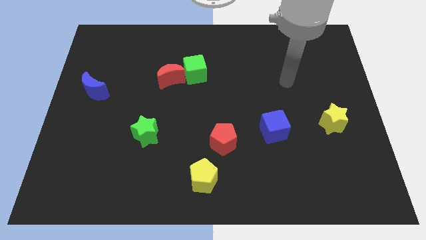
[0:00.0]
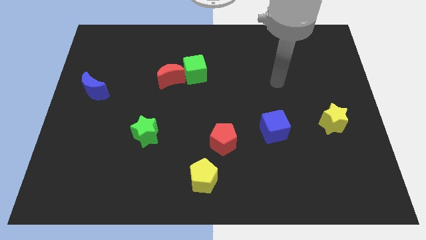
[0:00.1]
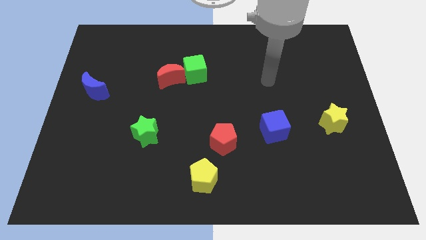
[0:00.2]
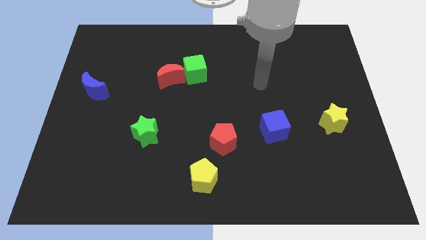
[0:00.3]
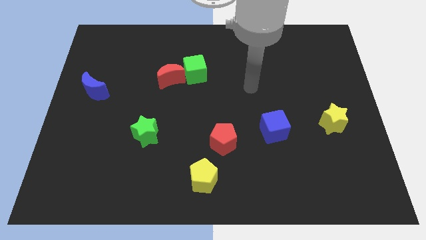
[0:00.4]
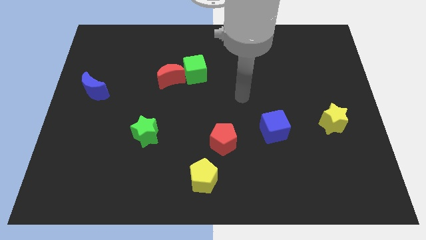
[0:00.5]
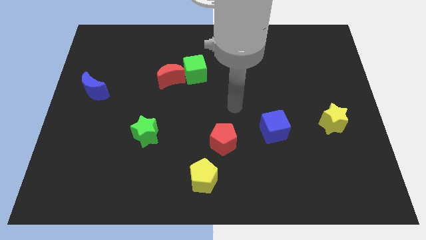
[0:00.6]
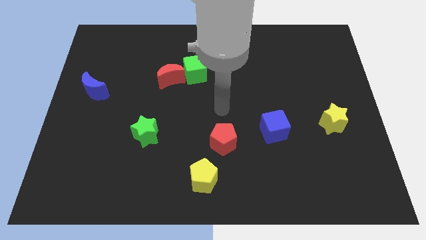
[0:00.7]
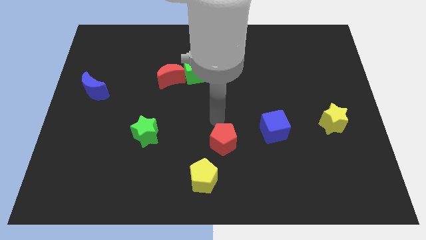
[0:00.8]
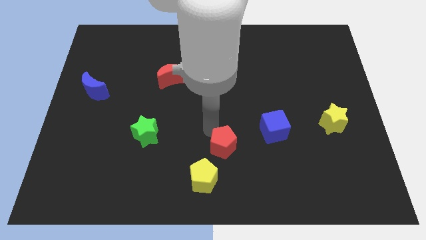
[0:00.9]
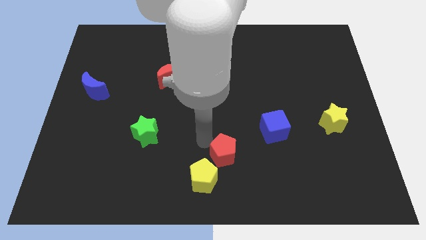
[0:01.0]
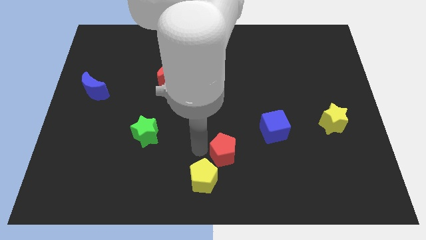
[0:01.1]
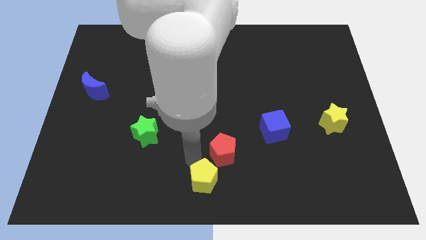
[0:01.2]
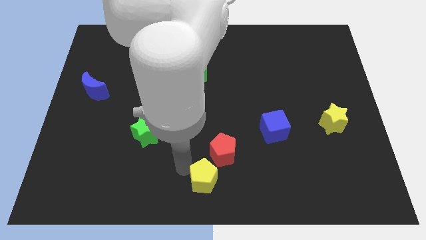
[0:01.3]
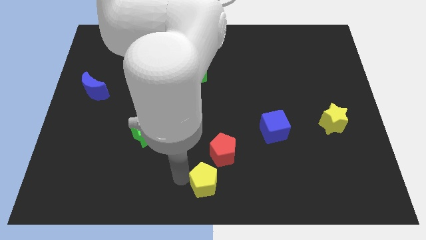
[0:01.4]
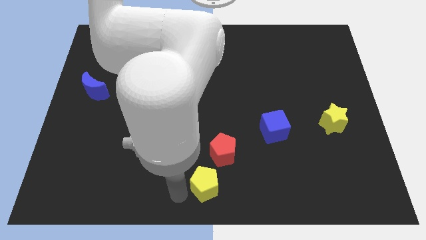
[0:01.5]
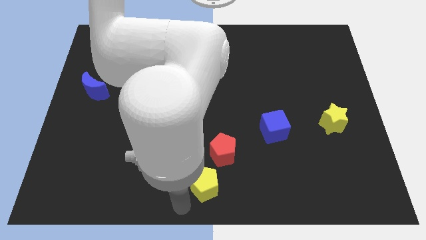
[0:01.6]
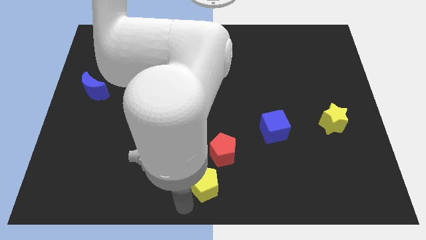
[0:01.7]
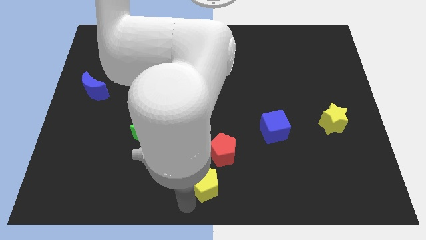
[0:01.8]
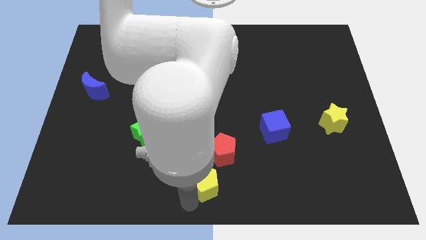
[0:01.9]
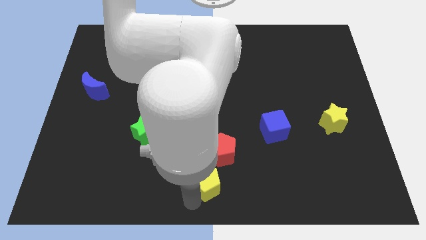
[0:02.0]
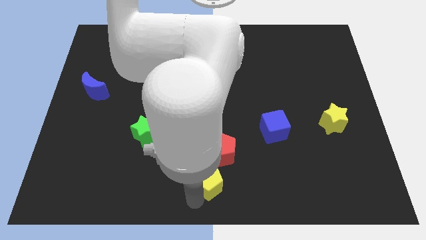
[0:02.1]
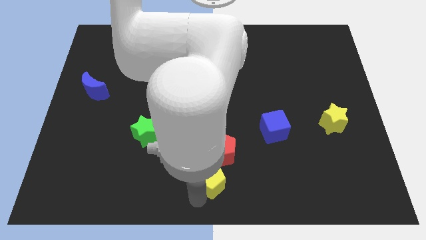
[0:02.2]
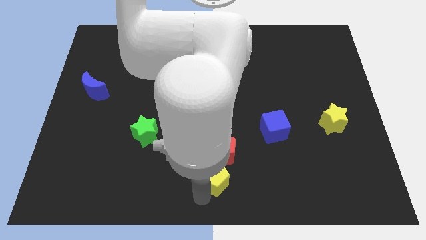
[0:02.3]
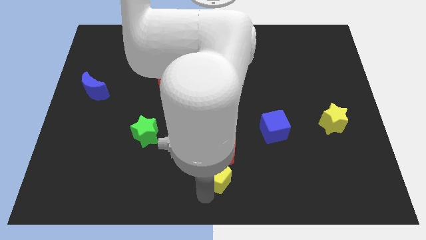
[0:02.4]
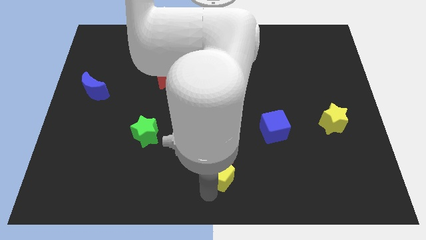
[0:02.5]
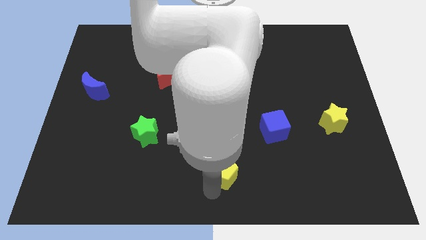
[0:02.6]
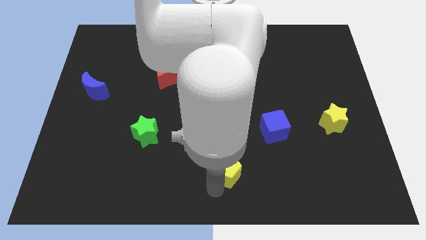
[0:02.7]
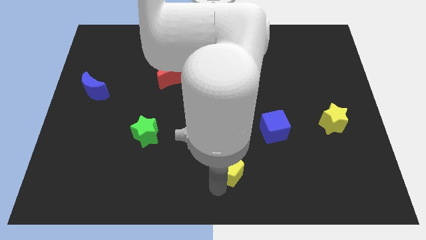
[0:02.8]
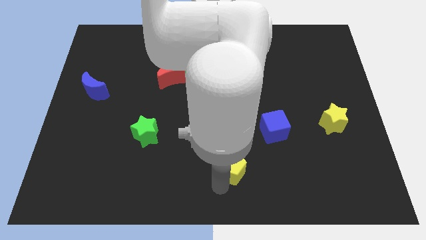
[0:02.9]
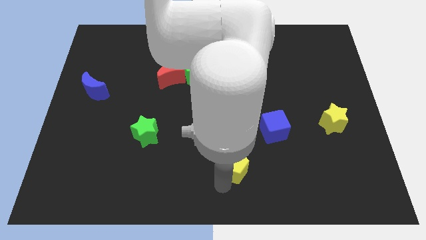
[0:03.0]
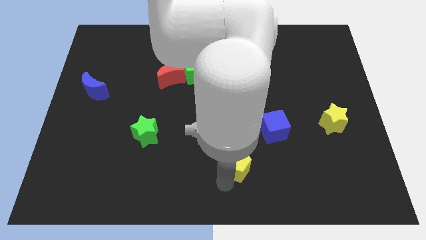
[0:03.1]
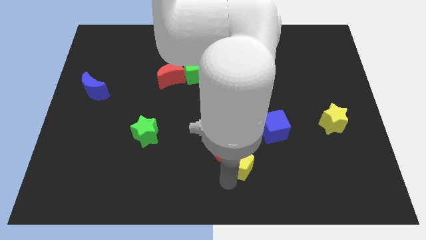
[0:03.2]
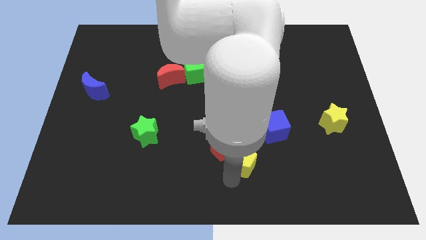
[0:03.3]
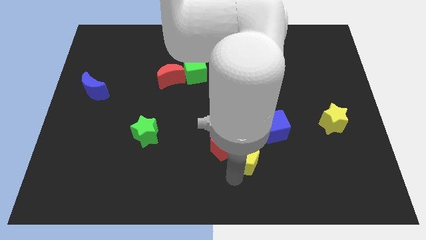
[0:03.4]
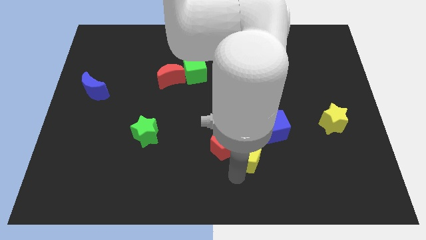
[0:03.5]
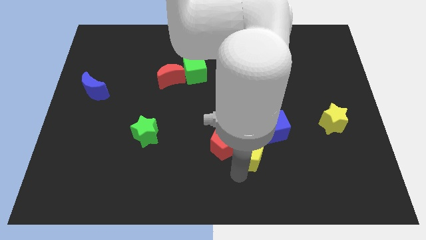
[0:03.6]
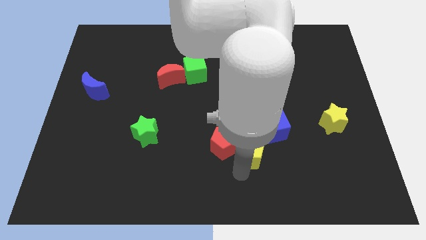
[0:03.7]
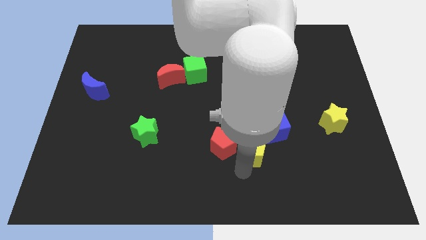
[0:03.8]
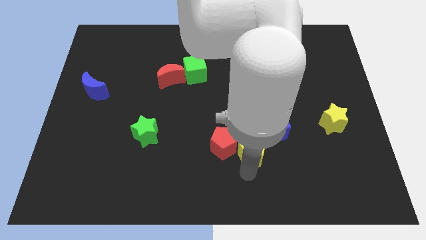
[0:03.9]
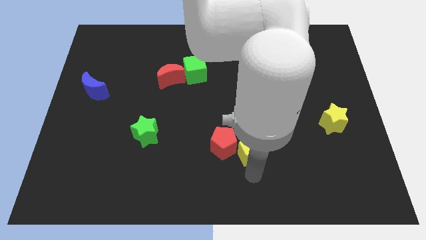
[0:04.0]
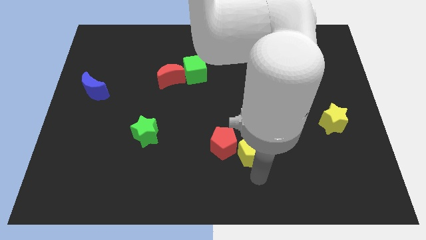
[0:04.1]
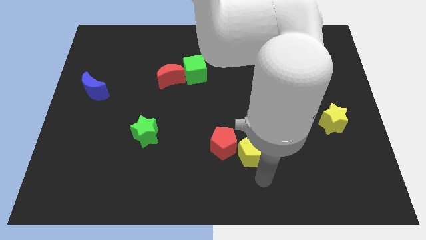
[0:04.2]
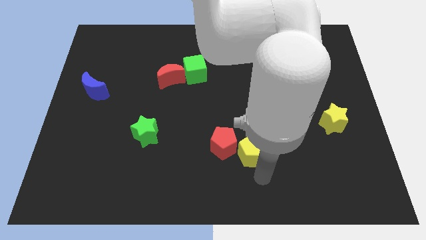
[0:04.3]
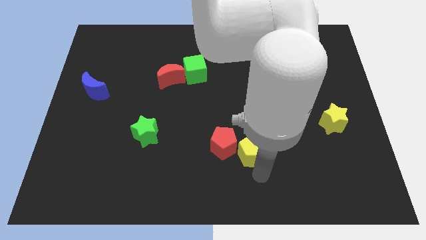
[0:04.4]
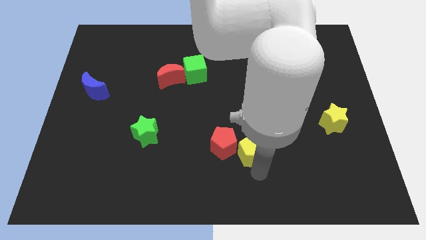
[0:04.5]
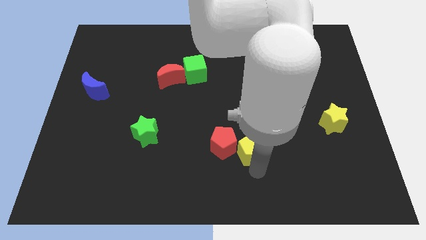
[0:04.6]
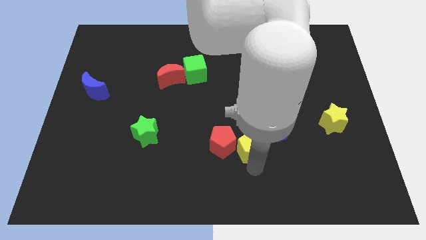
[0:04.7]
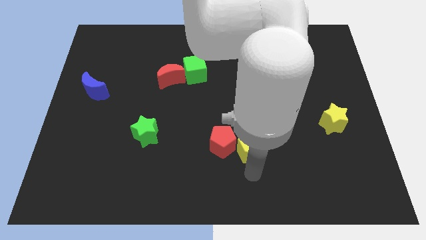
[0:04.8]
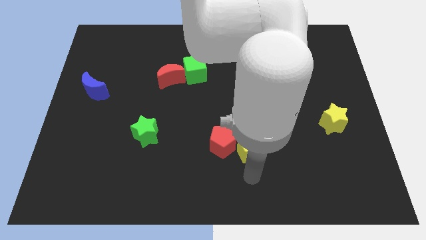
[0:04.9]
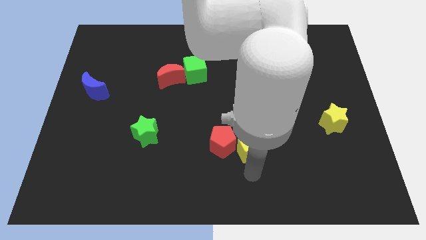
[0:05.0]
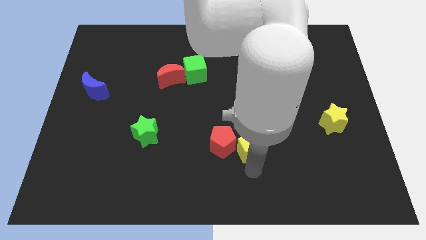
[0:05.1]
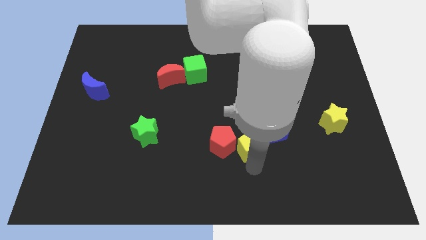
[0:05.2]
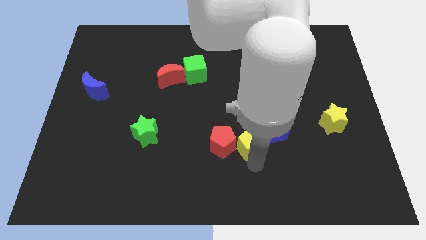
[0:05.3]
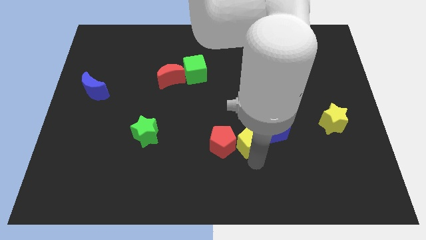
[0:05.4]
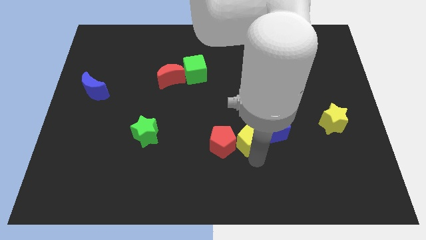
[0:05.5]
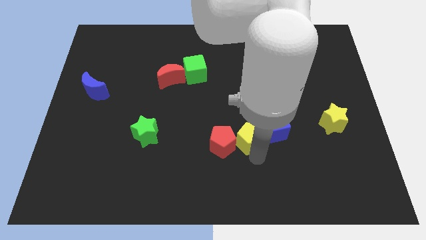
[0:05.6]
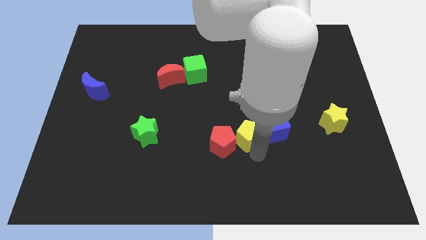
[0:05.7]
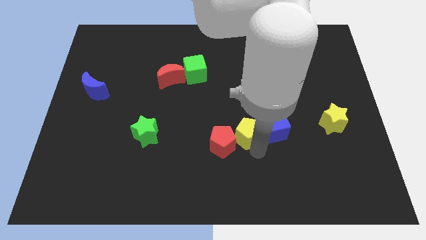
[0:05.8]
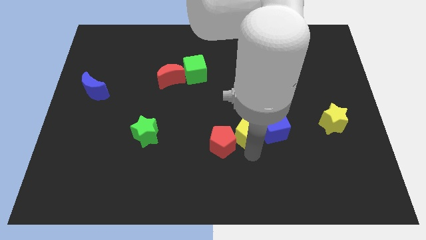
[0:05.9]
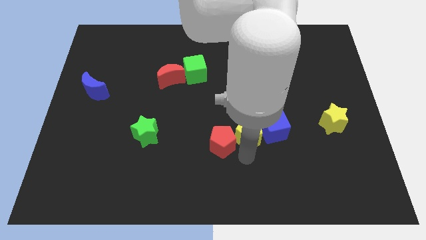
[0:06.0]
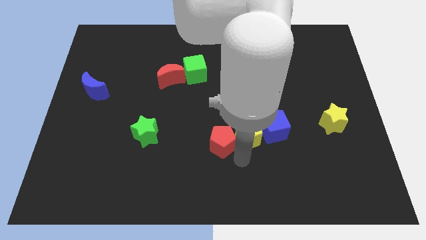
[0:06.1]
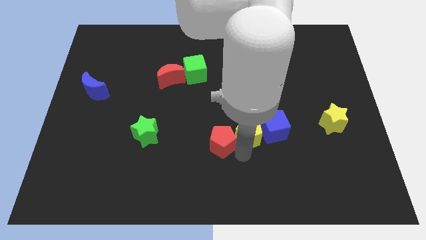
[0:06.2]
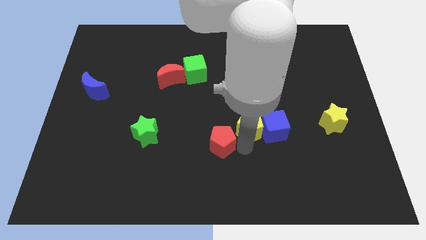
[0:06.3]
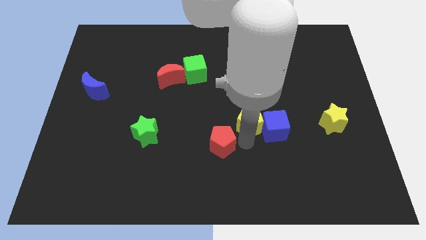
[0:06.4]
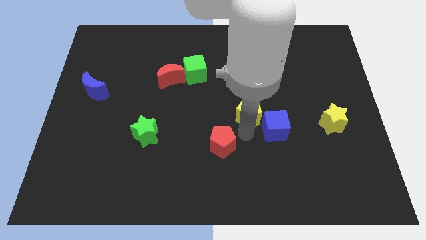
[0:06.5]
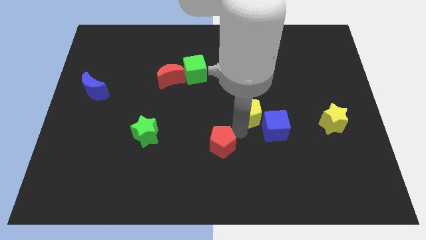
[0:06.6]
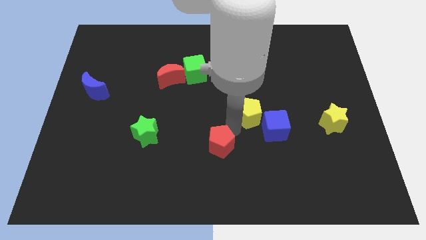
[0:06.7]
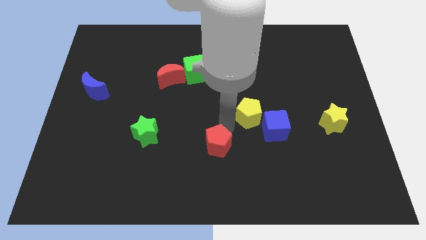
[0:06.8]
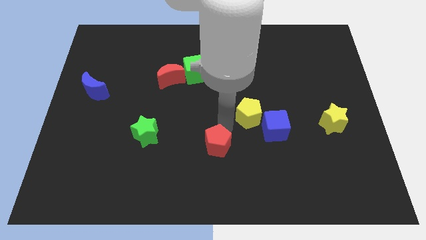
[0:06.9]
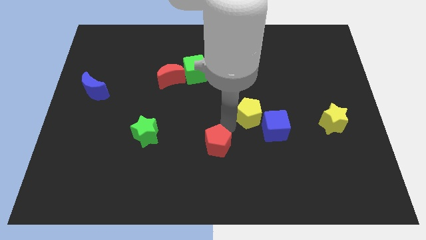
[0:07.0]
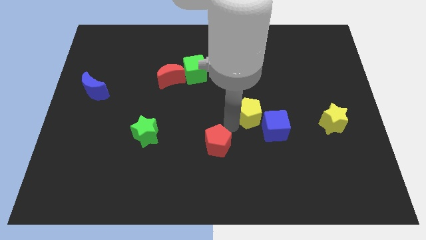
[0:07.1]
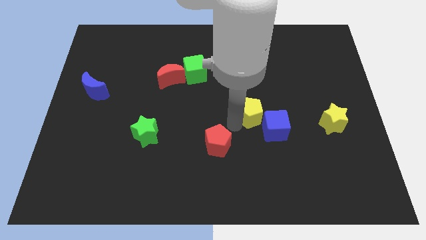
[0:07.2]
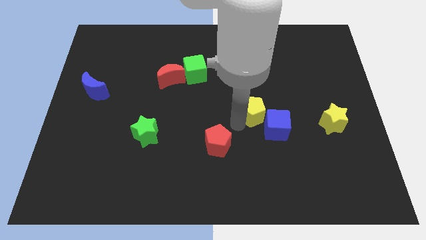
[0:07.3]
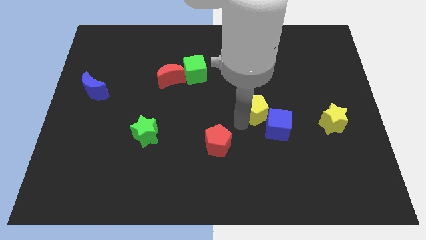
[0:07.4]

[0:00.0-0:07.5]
slide the yellow pentagon upwards and right

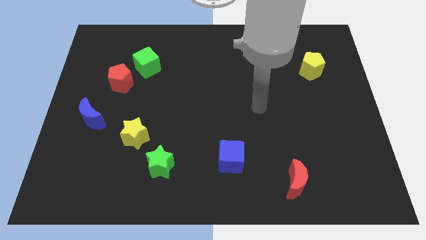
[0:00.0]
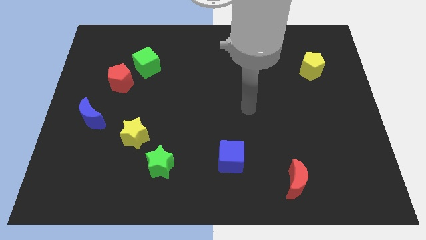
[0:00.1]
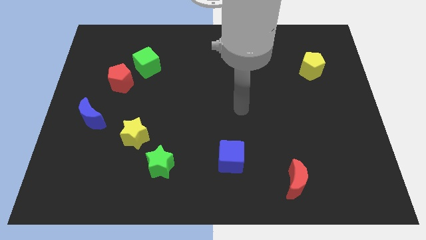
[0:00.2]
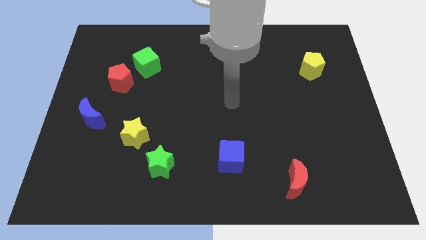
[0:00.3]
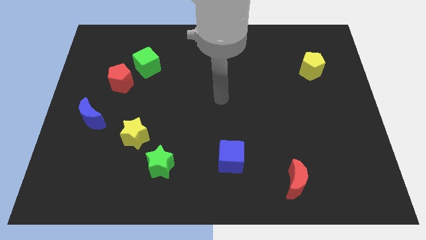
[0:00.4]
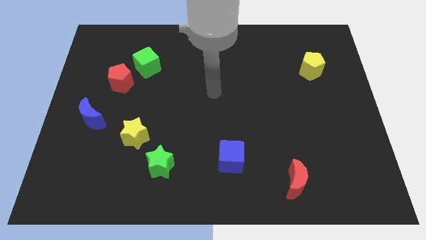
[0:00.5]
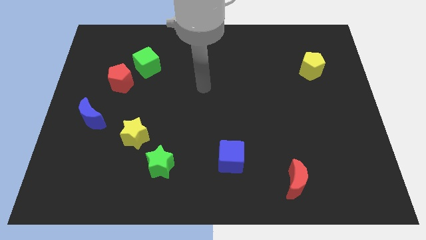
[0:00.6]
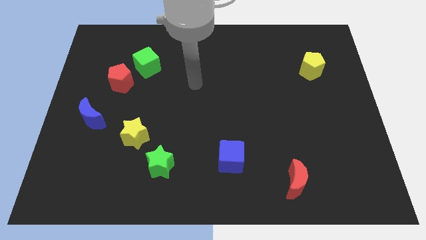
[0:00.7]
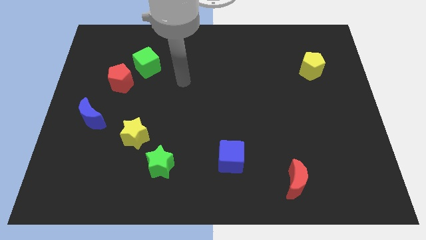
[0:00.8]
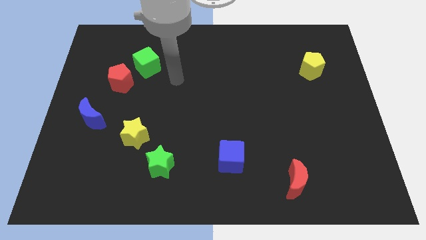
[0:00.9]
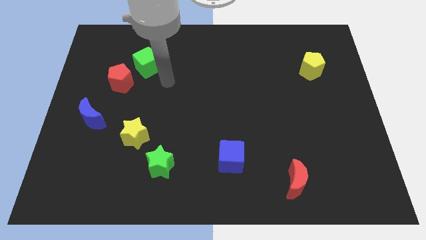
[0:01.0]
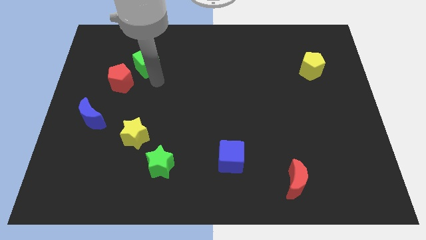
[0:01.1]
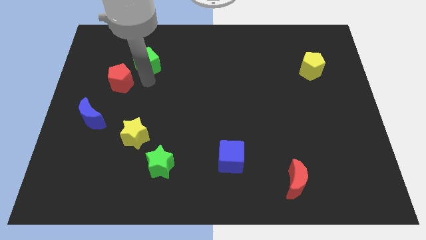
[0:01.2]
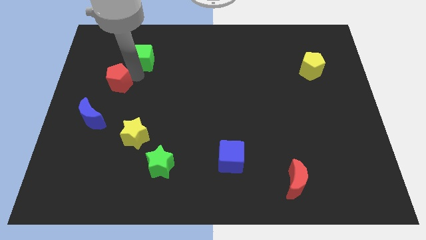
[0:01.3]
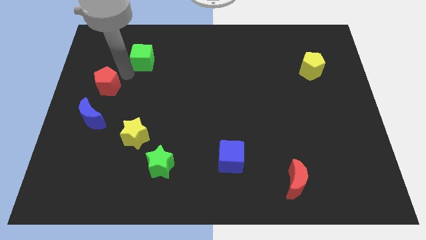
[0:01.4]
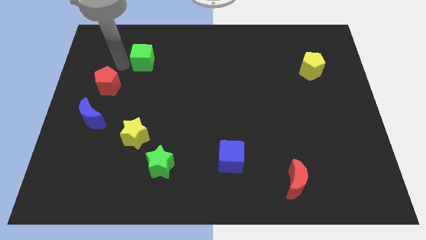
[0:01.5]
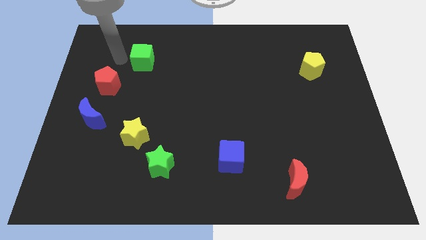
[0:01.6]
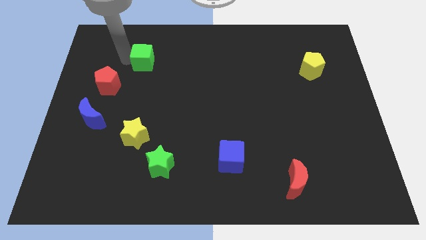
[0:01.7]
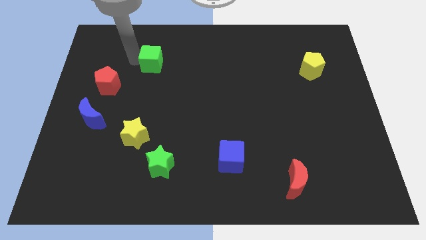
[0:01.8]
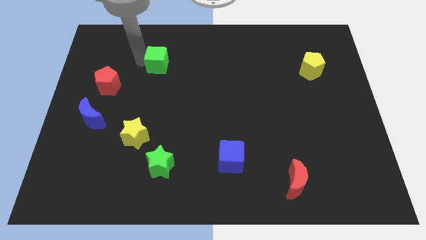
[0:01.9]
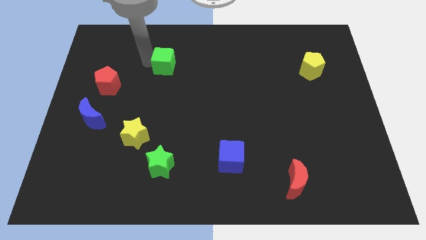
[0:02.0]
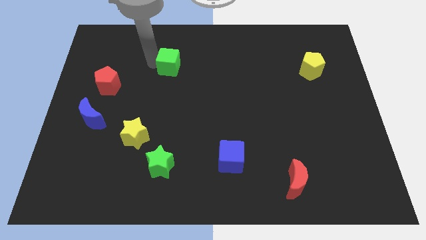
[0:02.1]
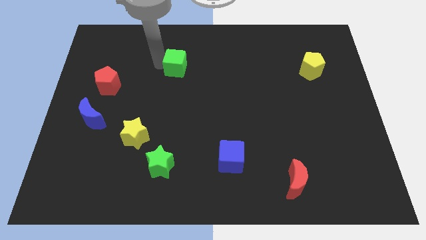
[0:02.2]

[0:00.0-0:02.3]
move the green cube to the right a little bit
